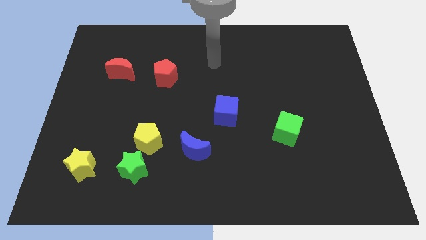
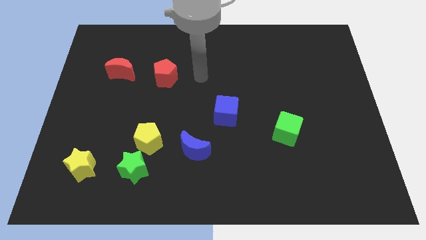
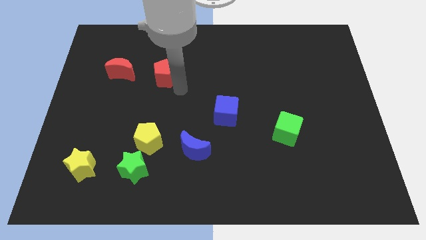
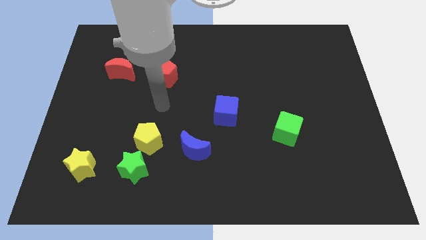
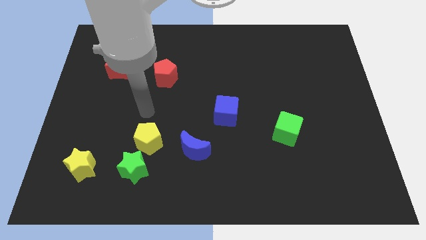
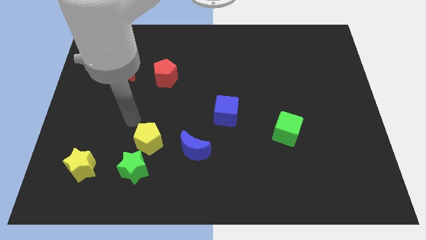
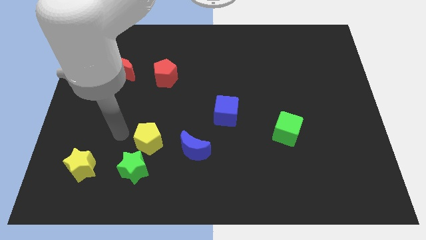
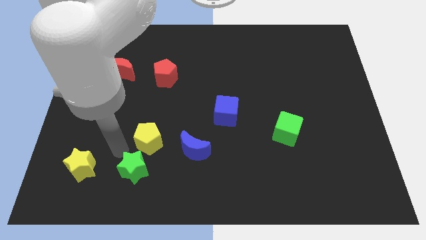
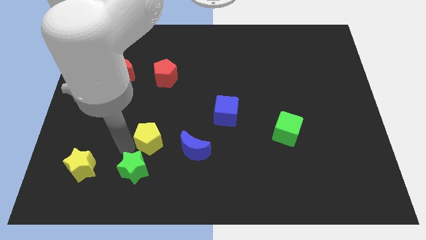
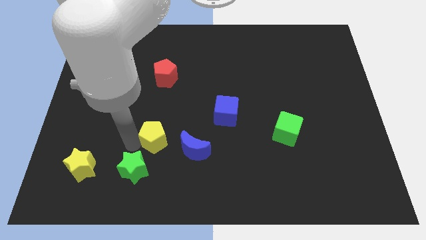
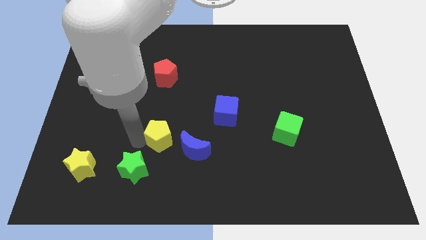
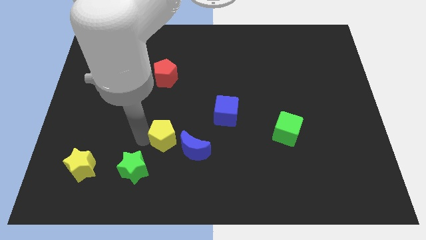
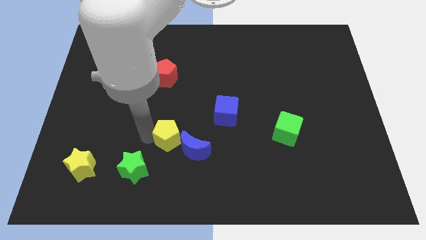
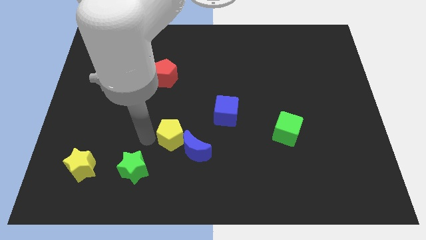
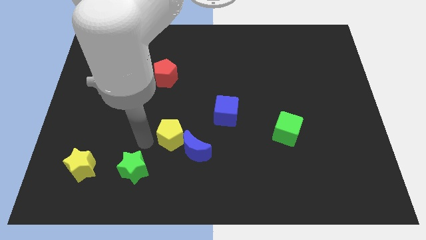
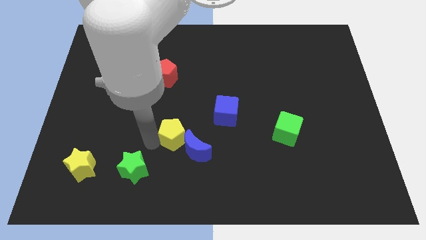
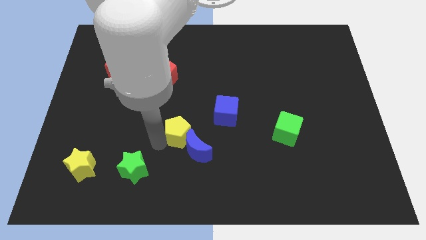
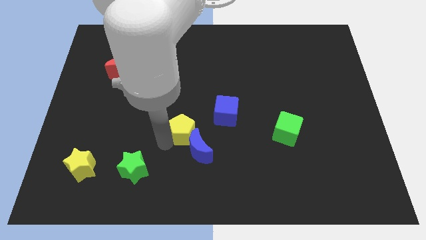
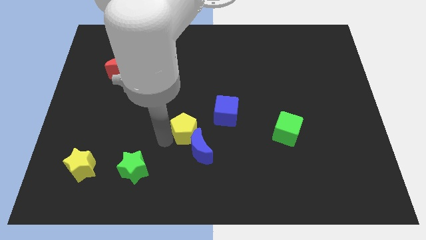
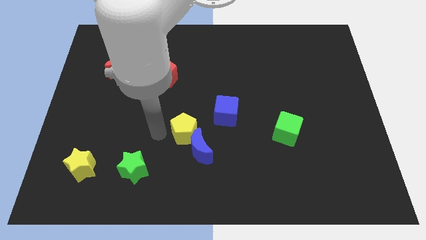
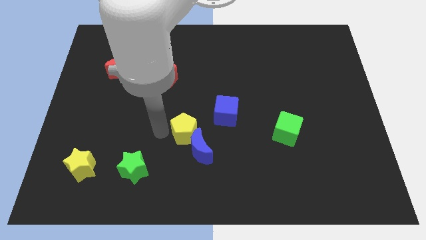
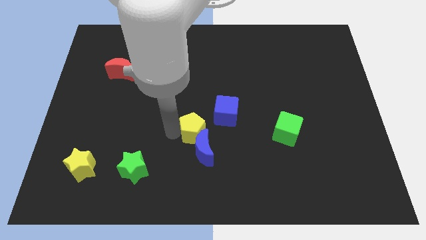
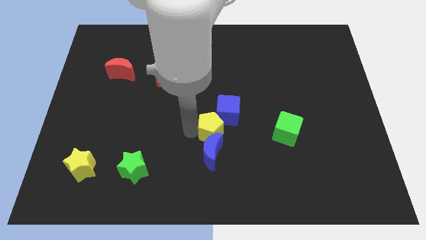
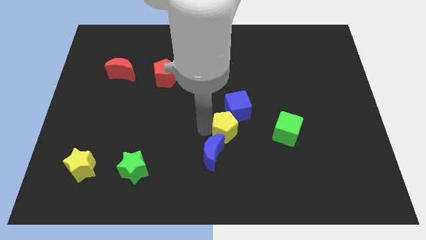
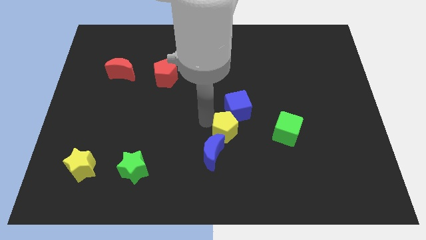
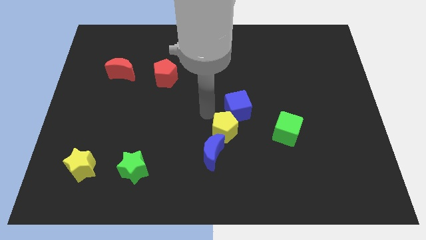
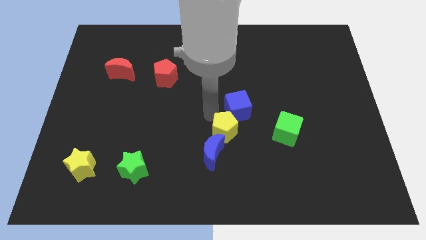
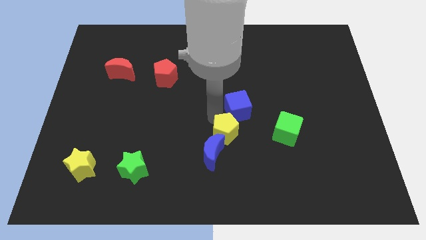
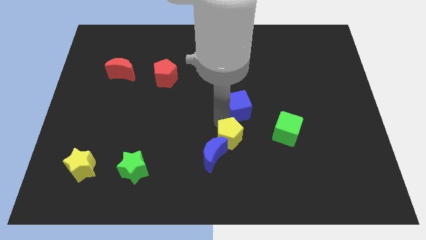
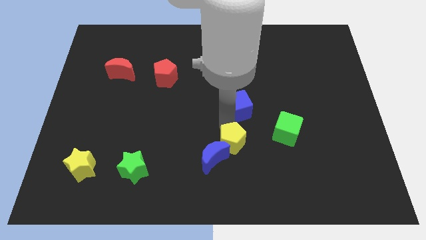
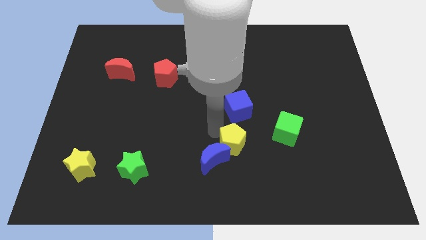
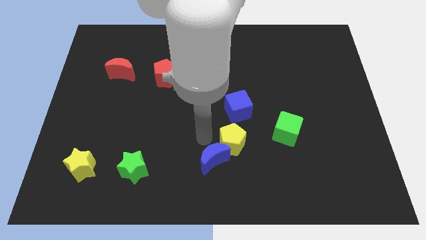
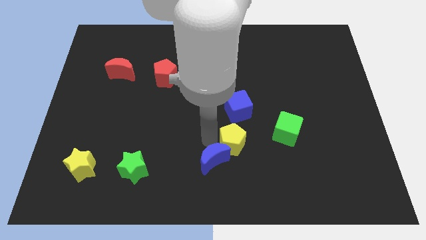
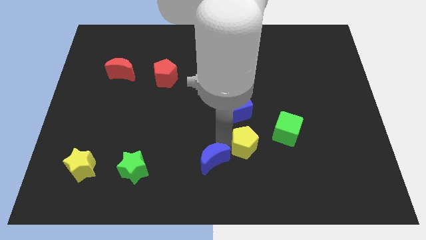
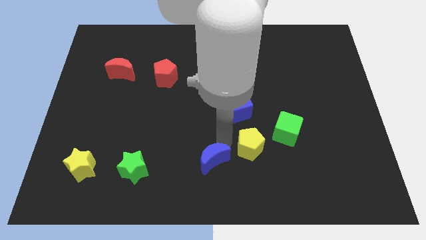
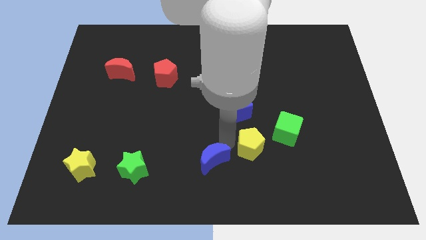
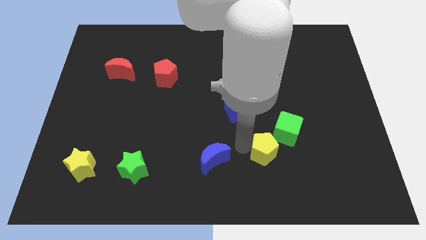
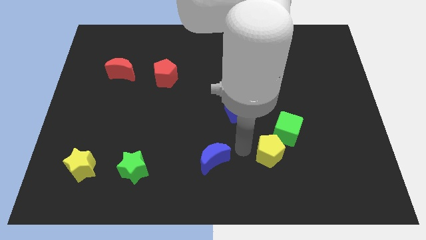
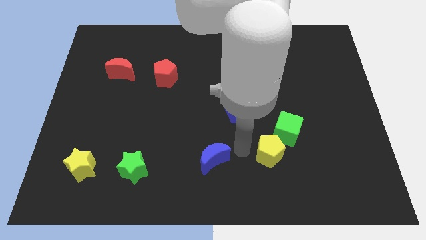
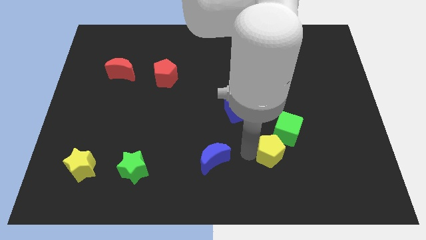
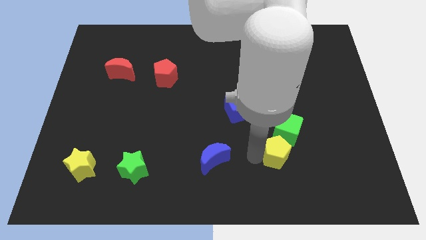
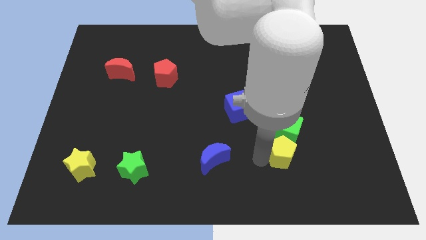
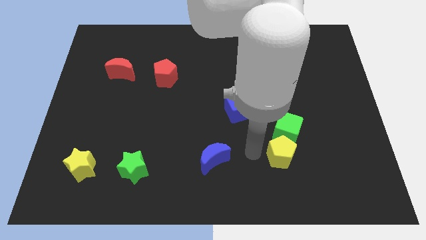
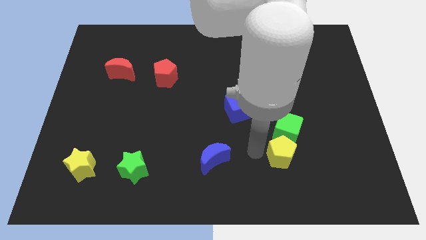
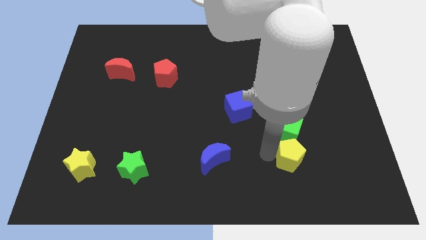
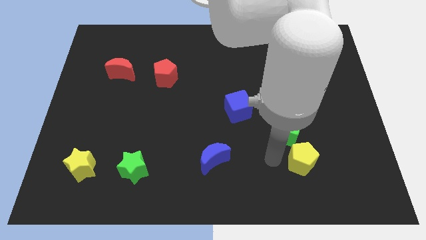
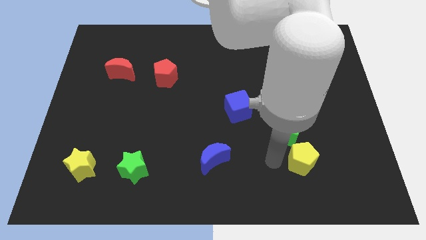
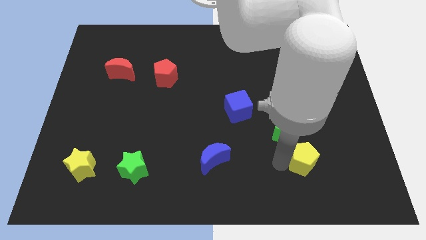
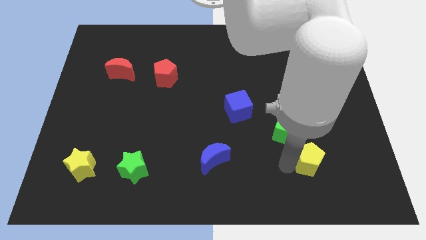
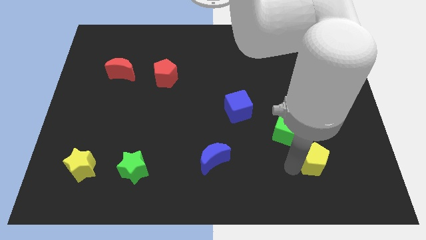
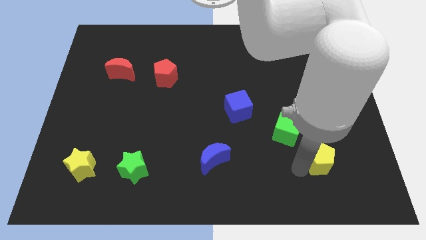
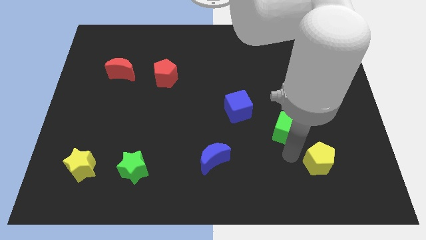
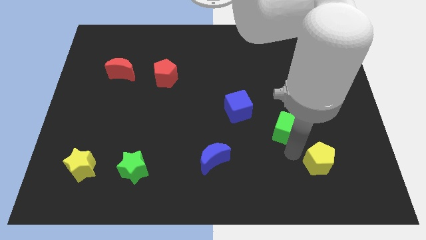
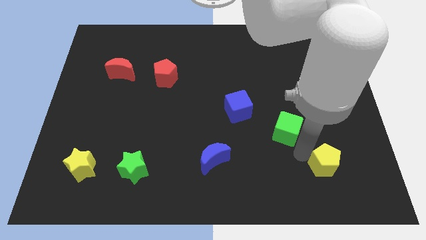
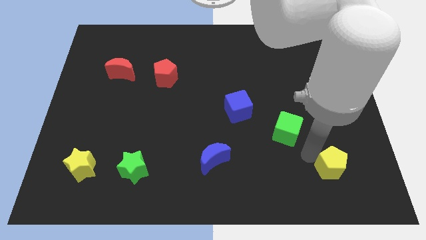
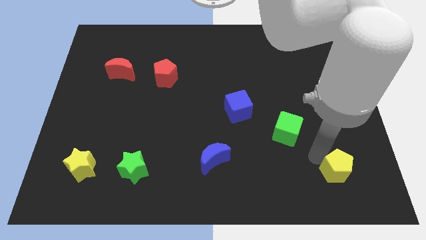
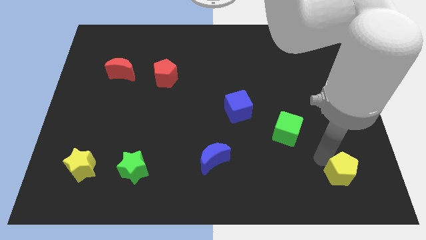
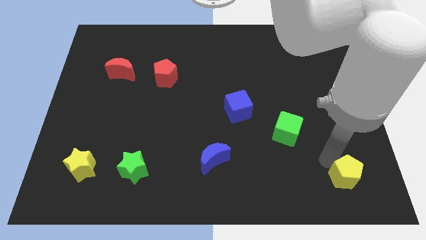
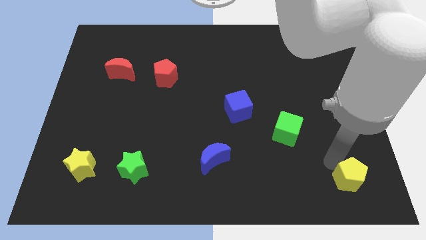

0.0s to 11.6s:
slide the yellow pentagon to the bottom right corner

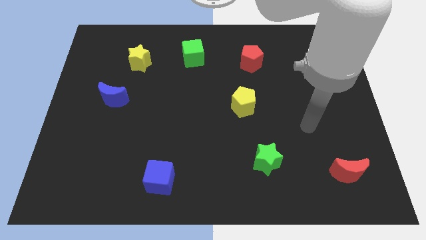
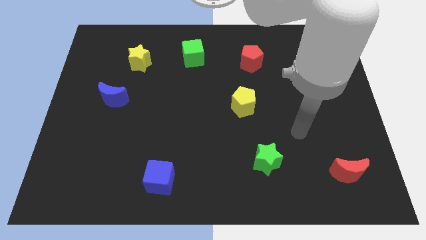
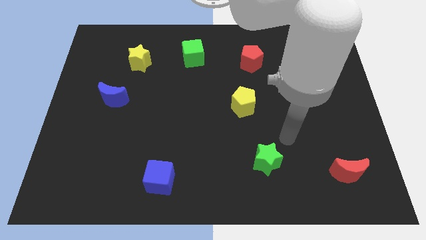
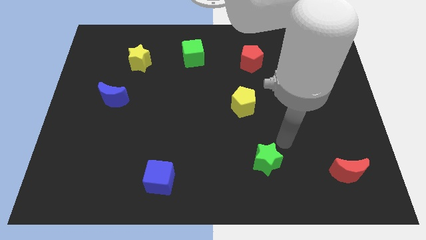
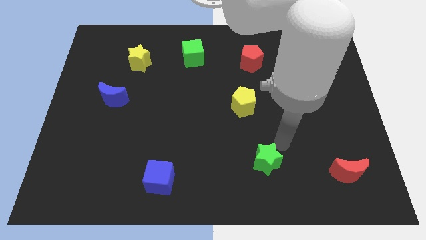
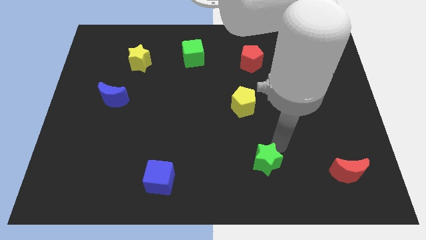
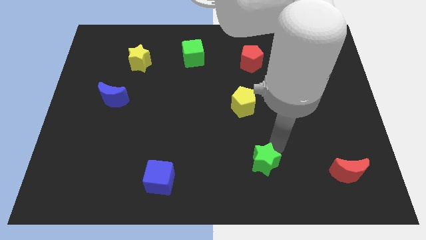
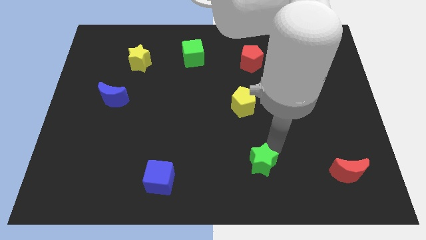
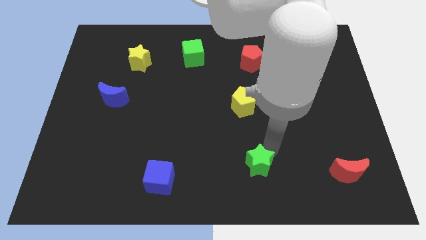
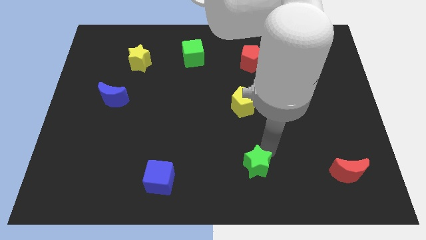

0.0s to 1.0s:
move the green star to the bottom
